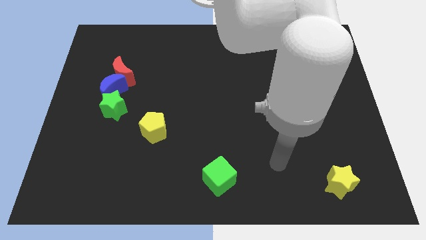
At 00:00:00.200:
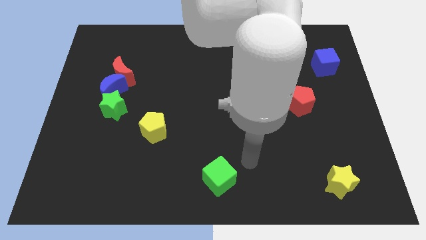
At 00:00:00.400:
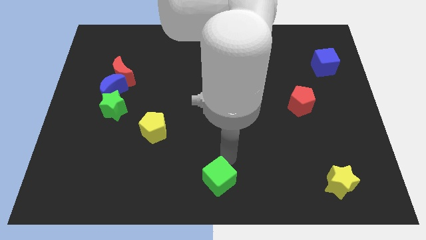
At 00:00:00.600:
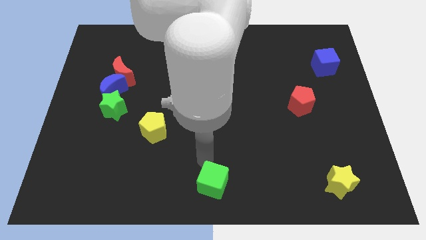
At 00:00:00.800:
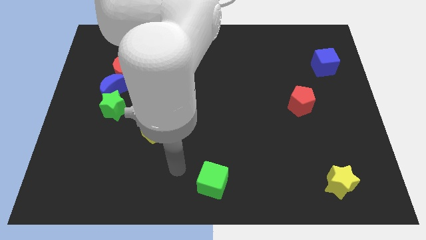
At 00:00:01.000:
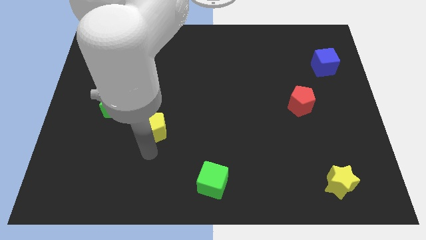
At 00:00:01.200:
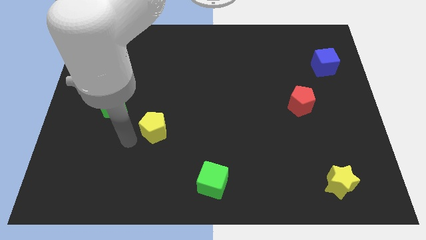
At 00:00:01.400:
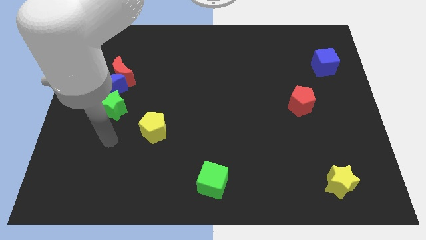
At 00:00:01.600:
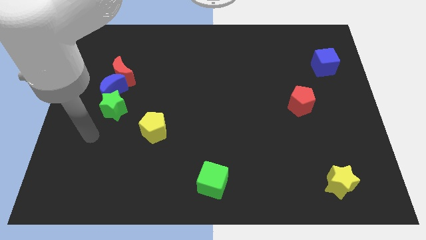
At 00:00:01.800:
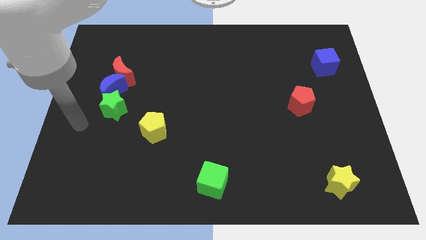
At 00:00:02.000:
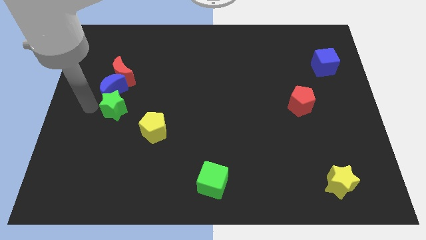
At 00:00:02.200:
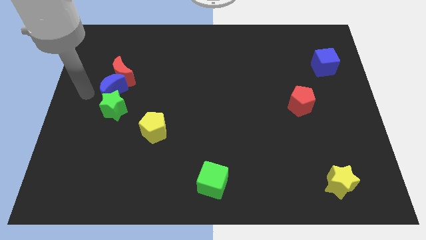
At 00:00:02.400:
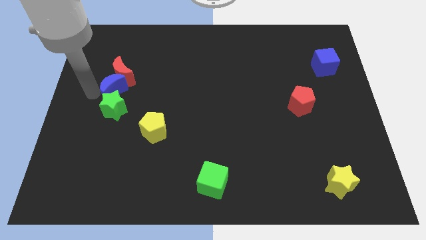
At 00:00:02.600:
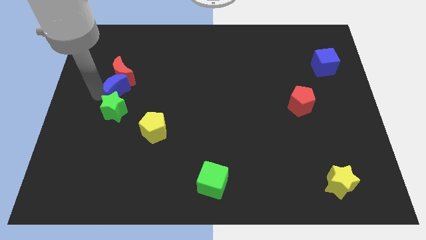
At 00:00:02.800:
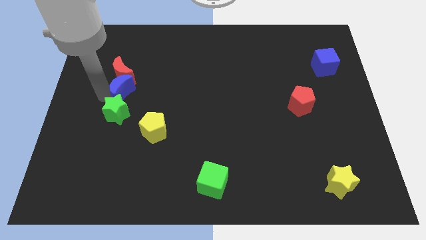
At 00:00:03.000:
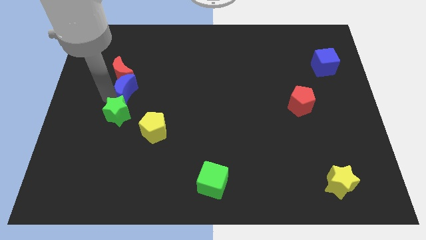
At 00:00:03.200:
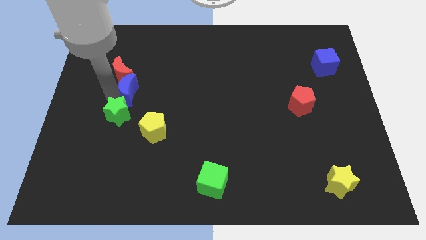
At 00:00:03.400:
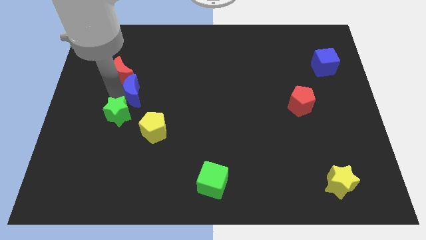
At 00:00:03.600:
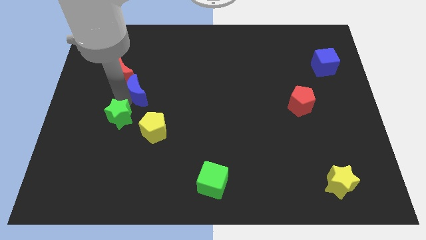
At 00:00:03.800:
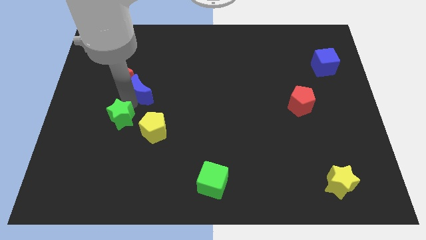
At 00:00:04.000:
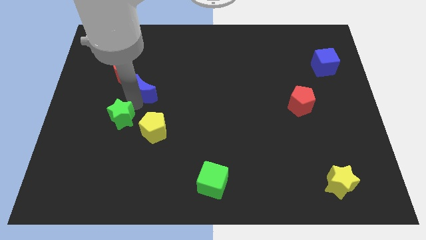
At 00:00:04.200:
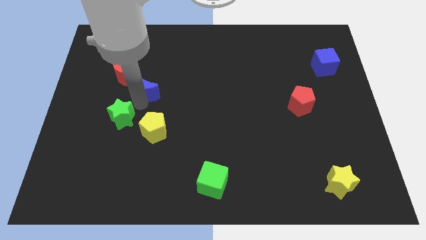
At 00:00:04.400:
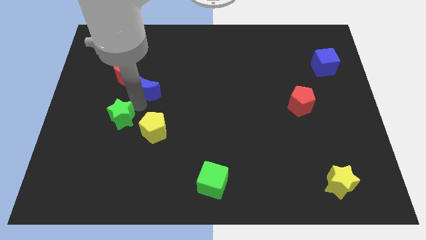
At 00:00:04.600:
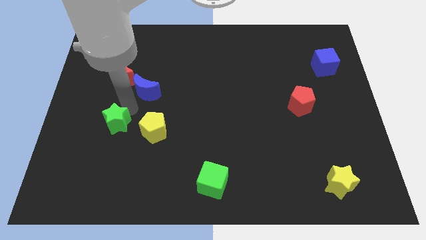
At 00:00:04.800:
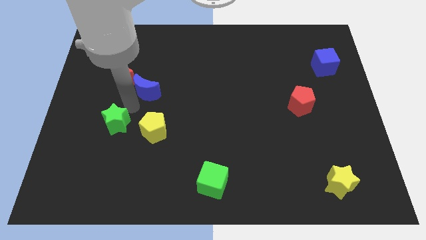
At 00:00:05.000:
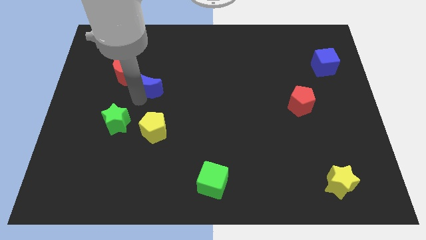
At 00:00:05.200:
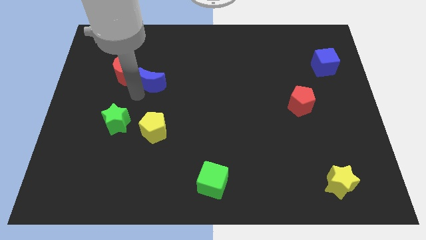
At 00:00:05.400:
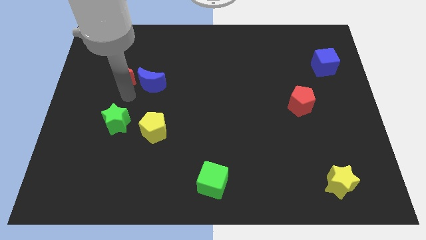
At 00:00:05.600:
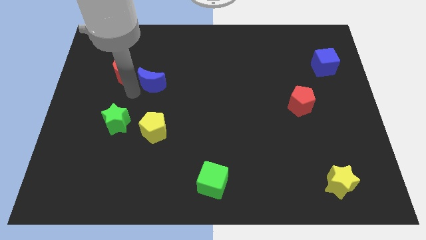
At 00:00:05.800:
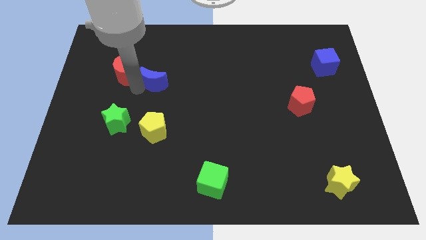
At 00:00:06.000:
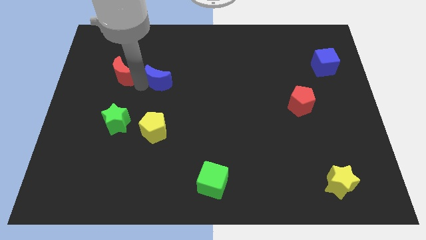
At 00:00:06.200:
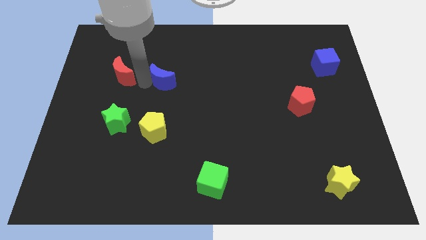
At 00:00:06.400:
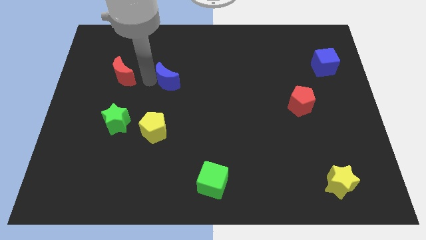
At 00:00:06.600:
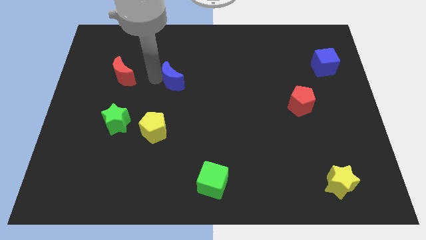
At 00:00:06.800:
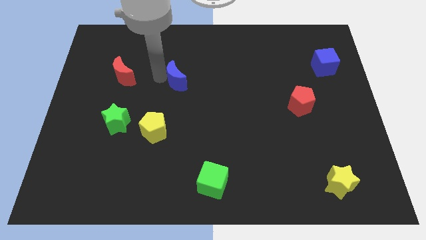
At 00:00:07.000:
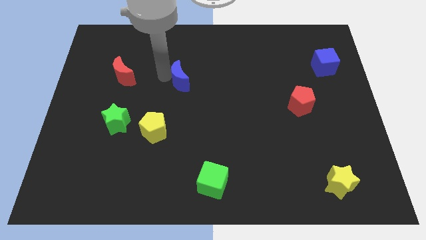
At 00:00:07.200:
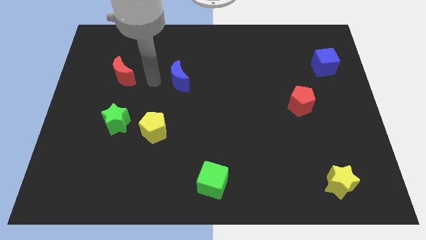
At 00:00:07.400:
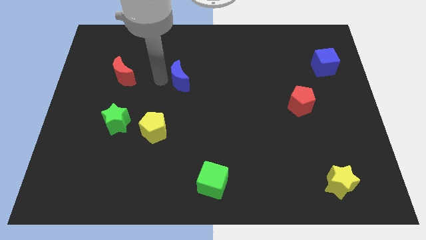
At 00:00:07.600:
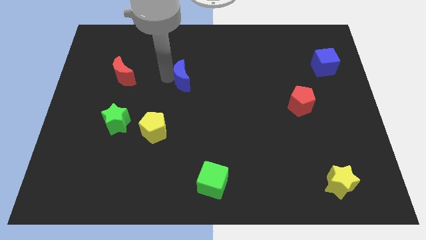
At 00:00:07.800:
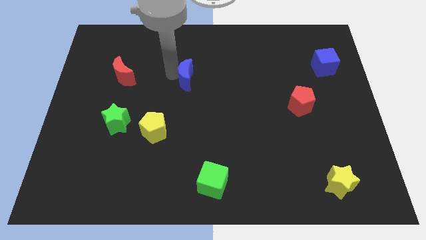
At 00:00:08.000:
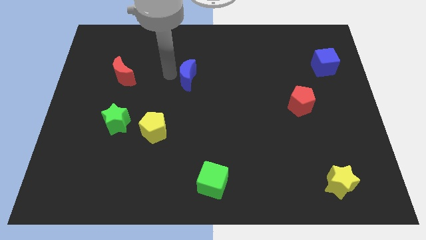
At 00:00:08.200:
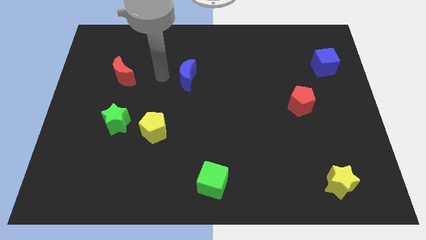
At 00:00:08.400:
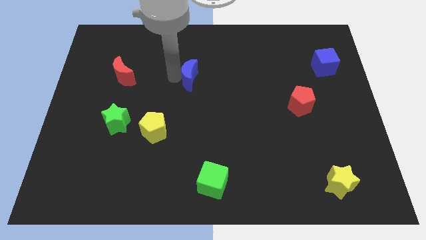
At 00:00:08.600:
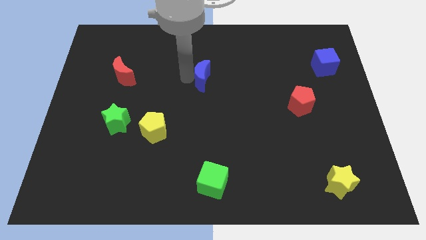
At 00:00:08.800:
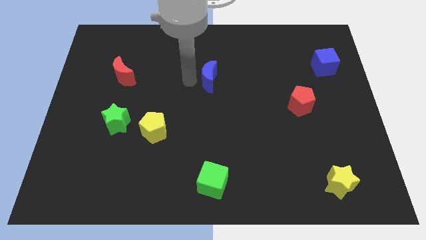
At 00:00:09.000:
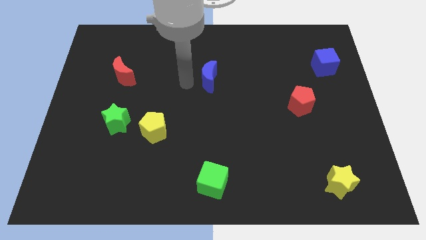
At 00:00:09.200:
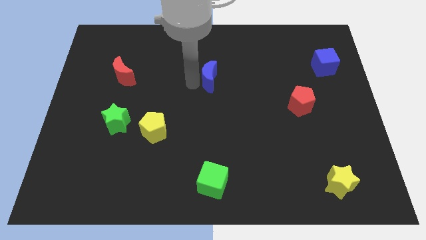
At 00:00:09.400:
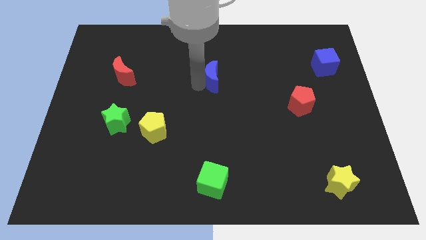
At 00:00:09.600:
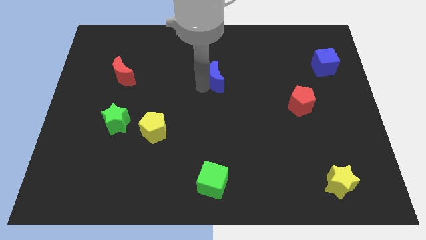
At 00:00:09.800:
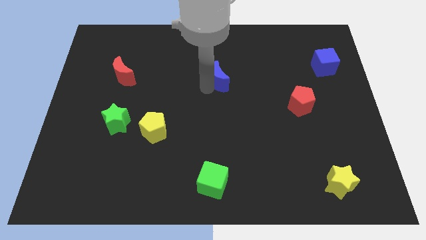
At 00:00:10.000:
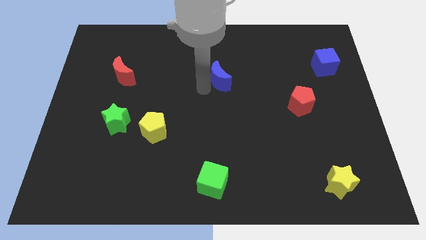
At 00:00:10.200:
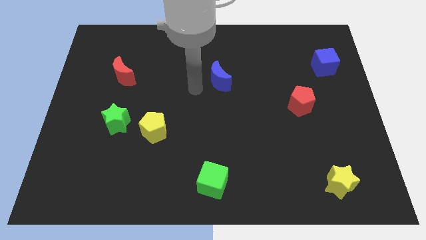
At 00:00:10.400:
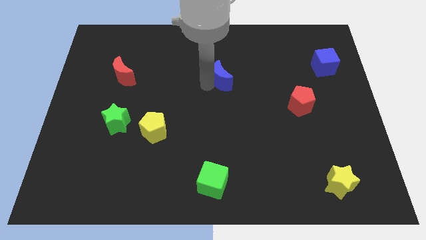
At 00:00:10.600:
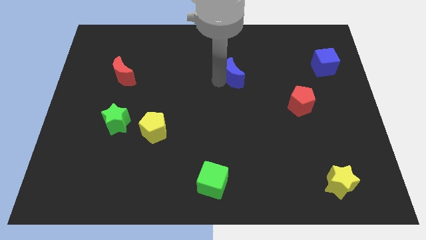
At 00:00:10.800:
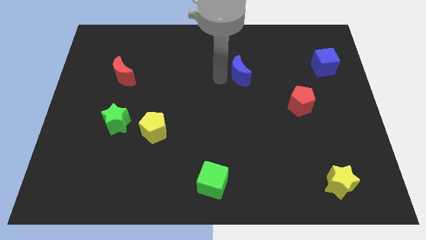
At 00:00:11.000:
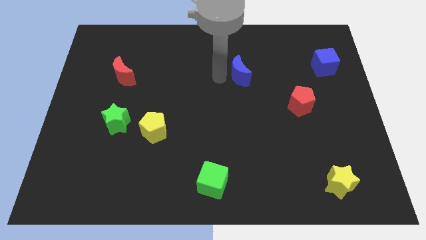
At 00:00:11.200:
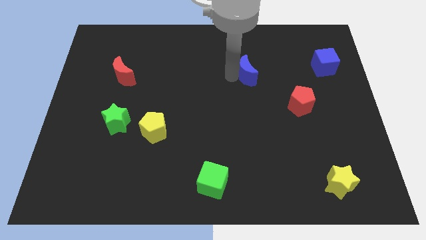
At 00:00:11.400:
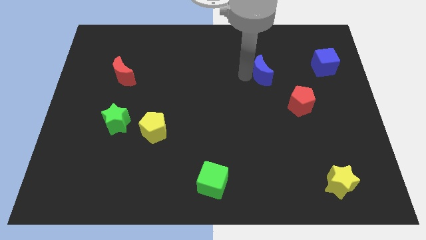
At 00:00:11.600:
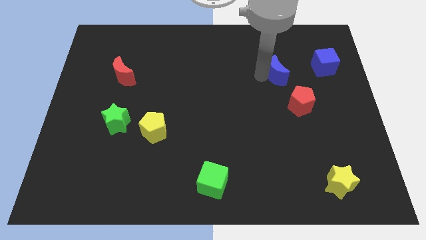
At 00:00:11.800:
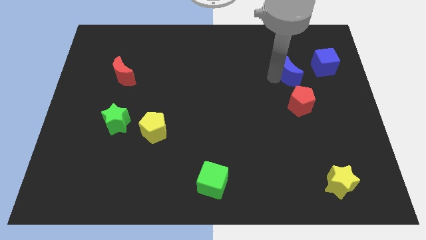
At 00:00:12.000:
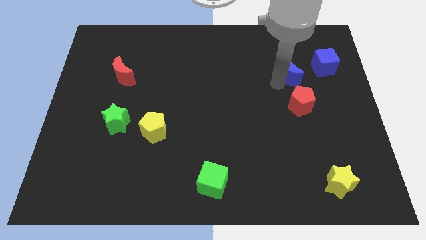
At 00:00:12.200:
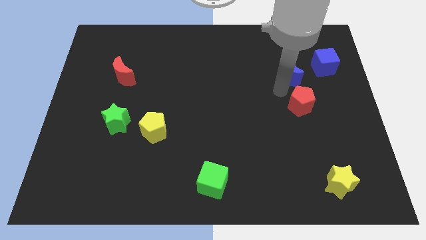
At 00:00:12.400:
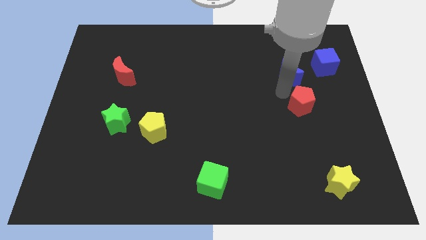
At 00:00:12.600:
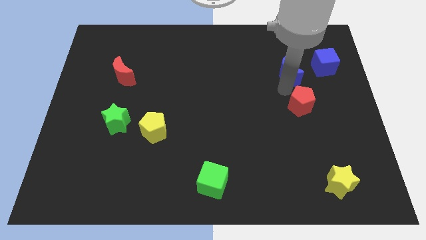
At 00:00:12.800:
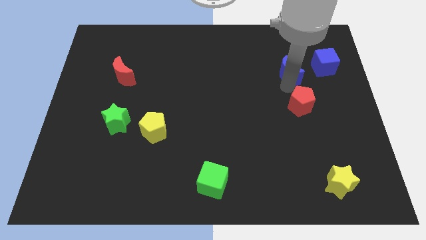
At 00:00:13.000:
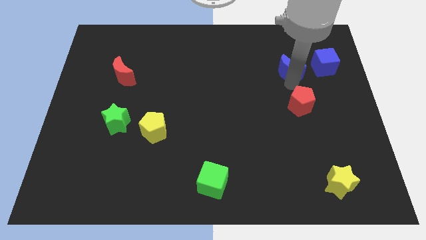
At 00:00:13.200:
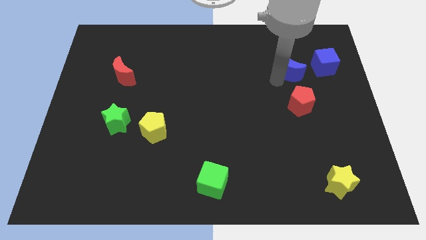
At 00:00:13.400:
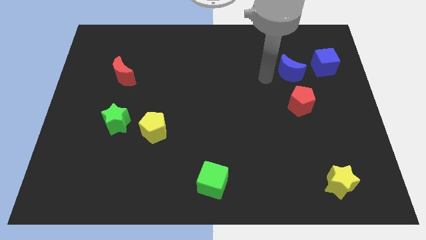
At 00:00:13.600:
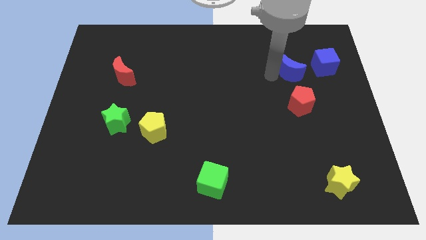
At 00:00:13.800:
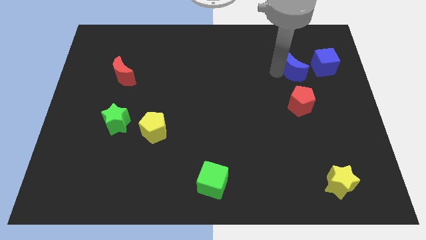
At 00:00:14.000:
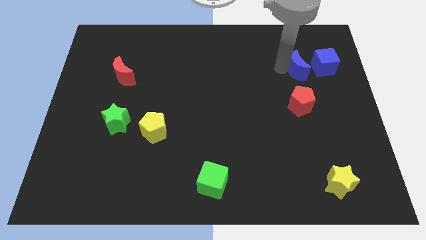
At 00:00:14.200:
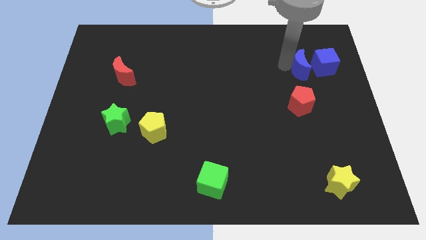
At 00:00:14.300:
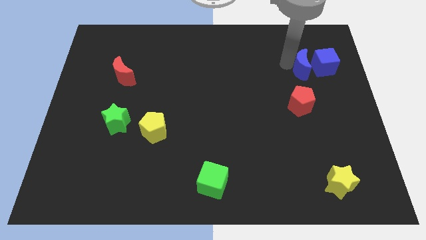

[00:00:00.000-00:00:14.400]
slide the blue moon towards the blue cube
